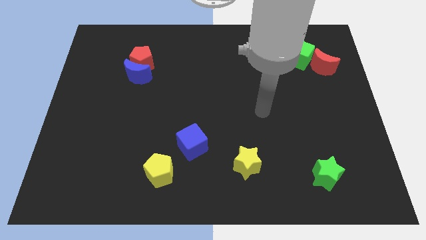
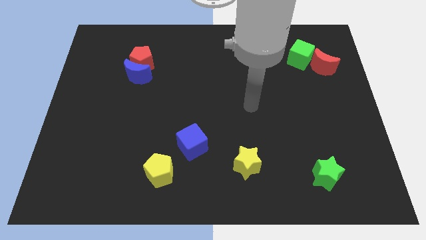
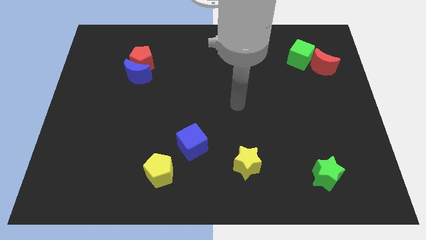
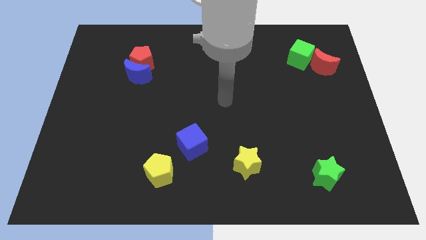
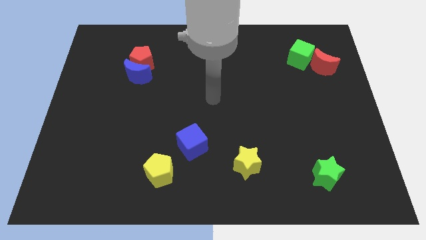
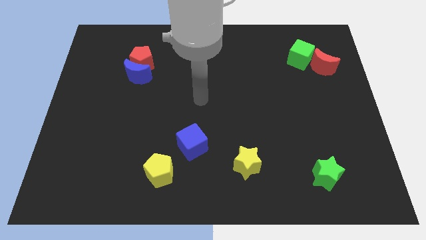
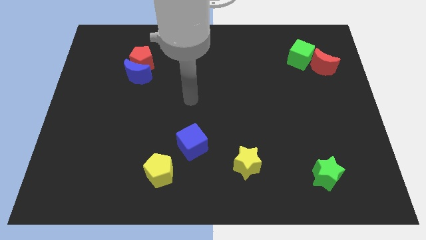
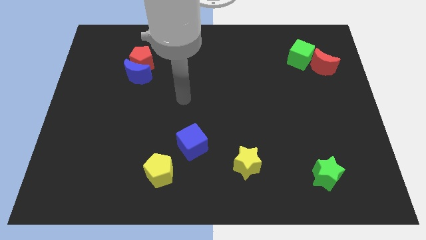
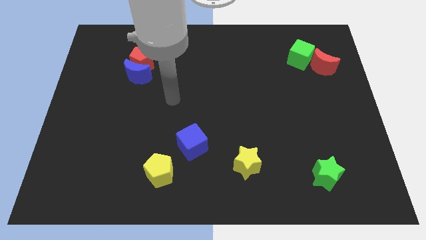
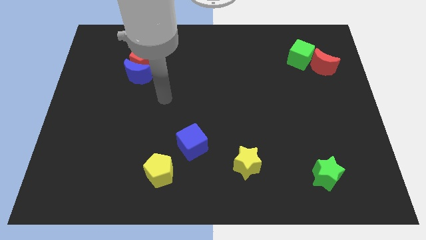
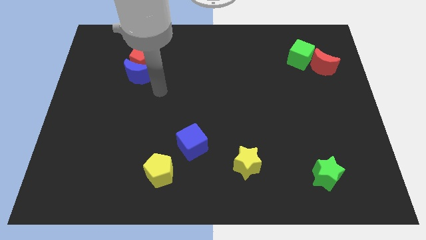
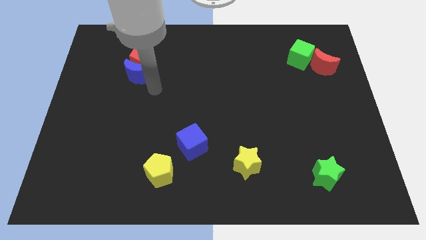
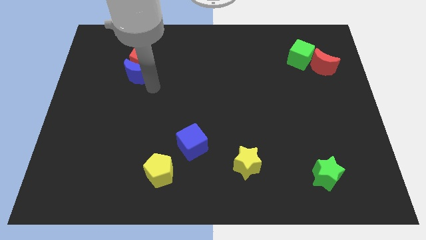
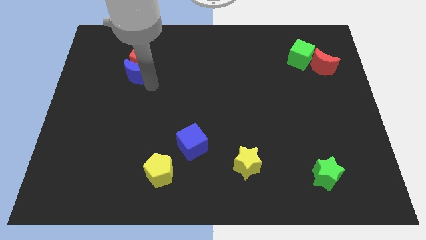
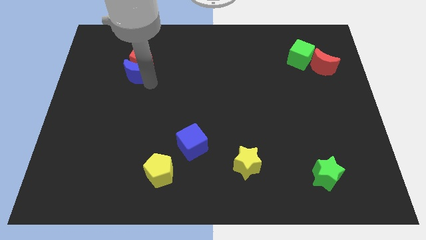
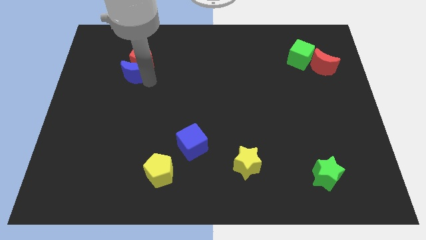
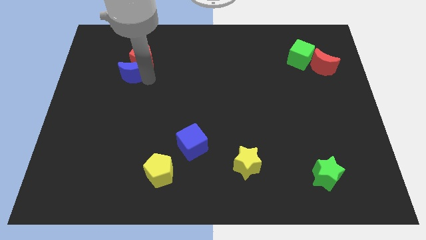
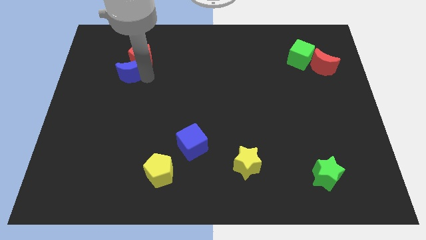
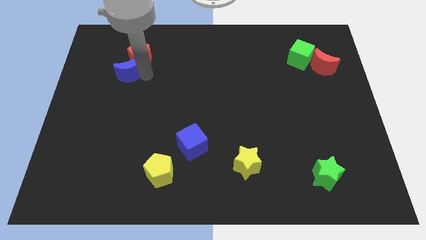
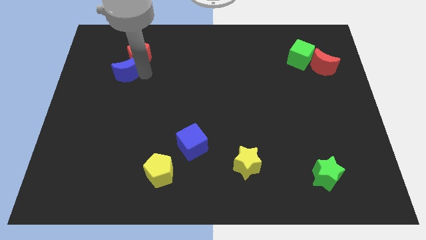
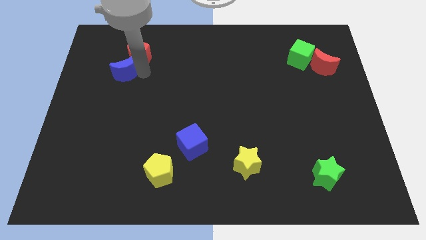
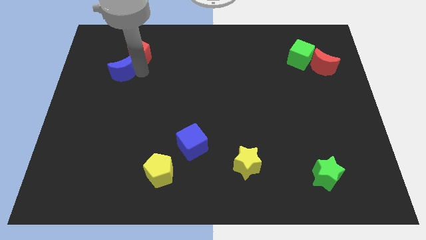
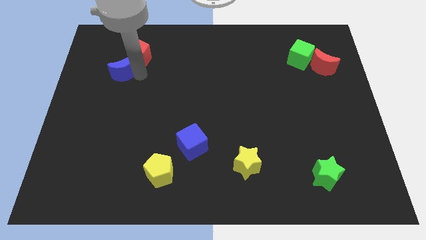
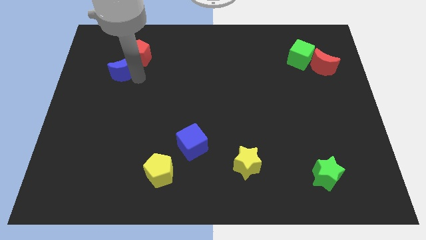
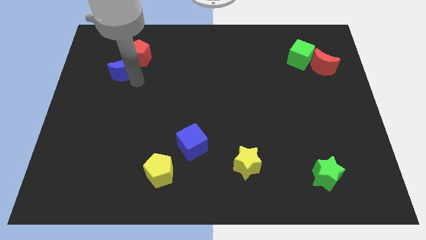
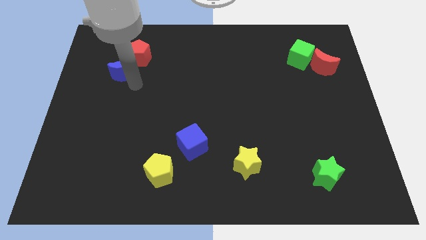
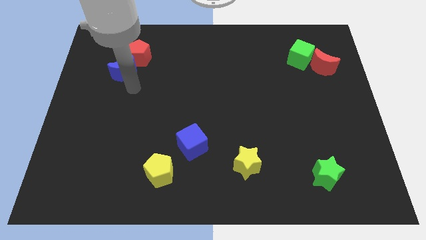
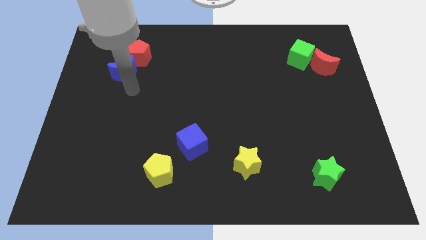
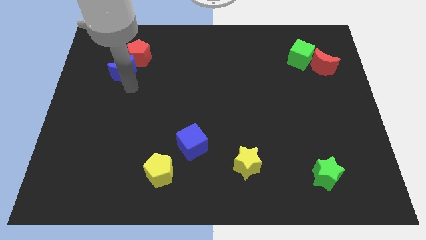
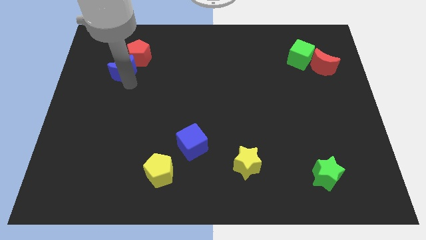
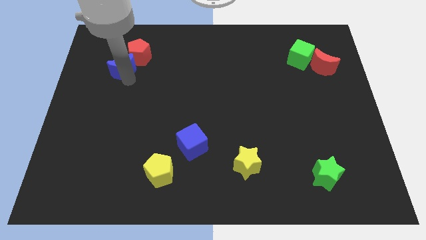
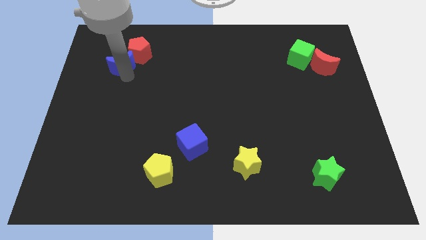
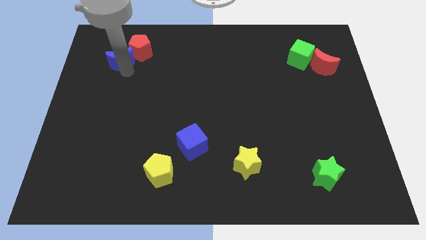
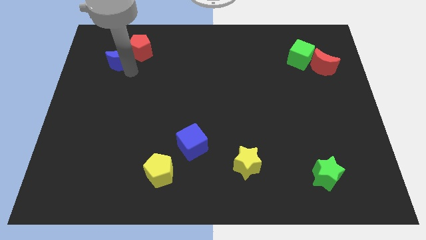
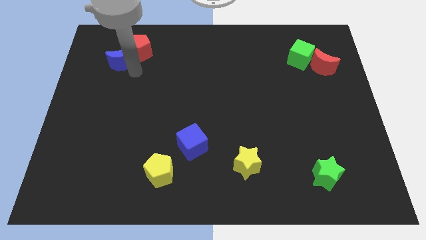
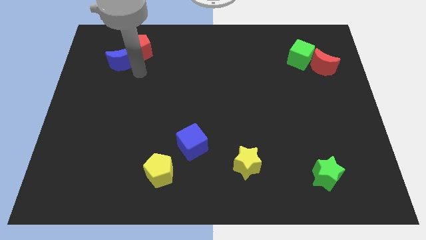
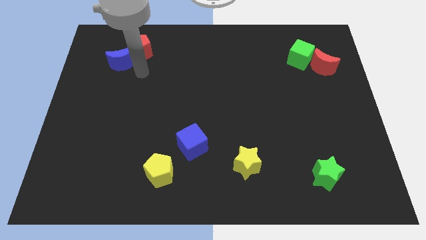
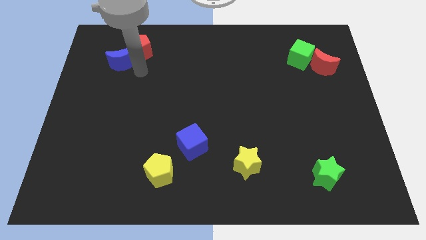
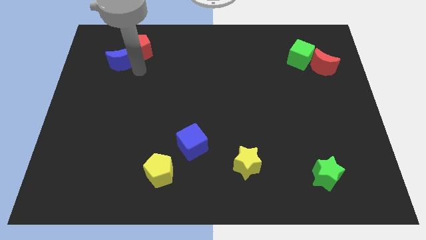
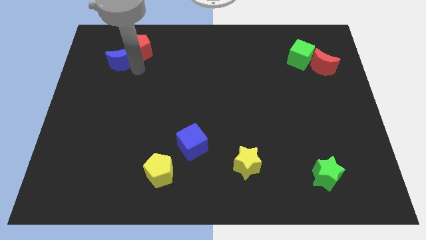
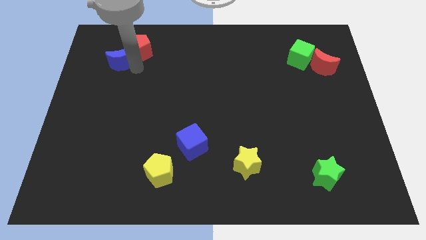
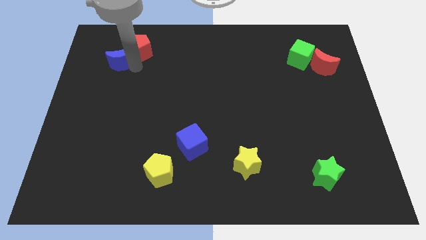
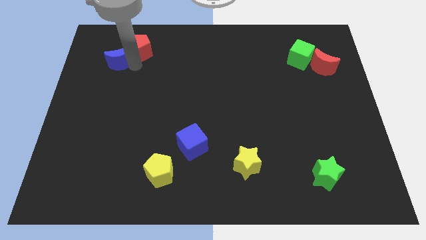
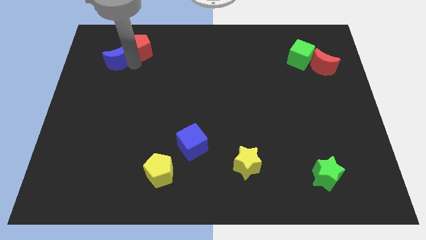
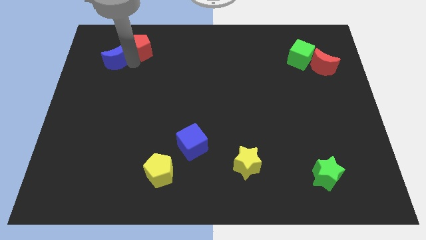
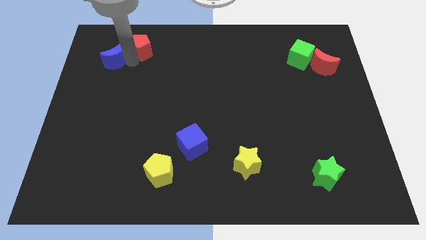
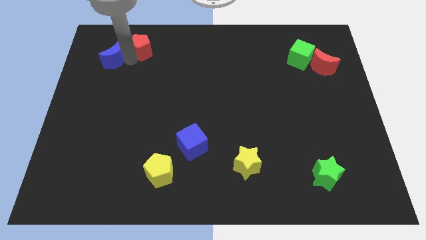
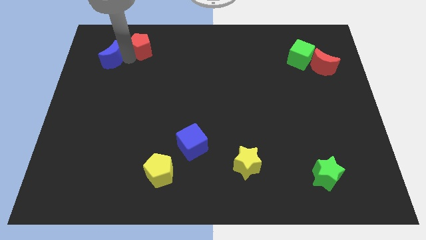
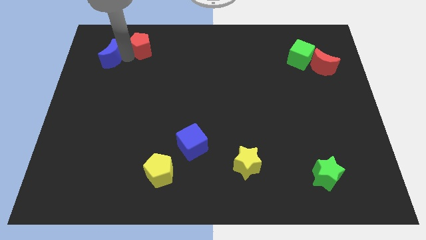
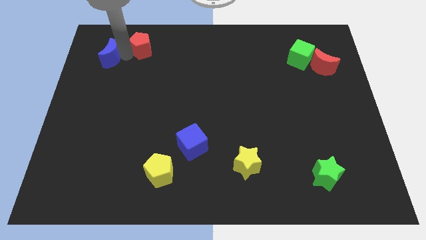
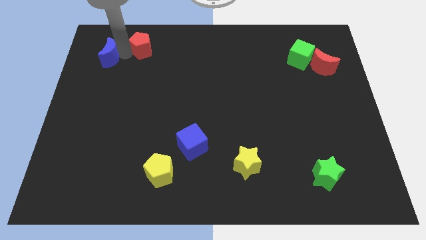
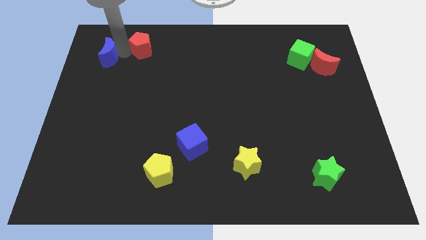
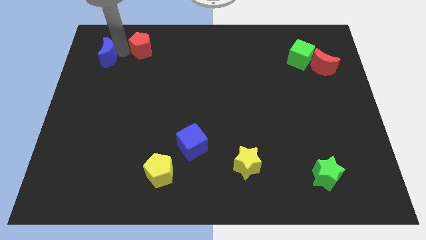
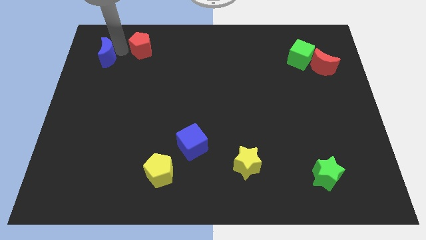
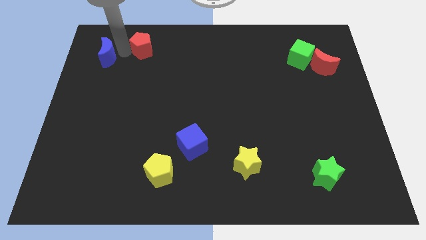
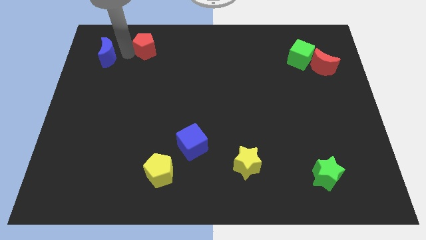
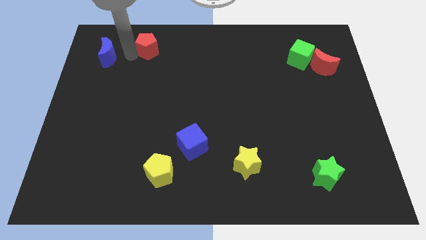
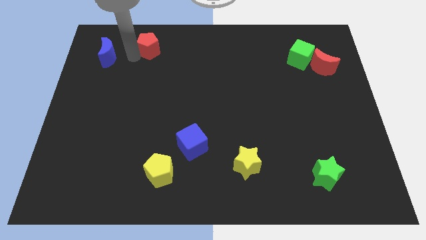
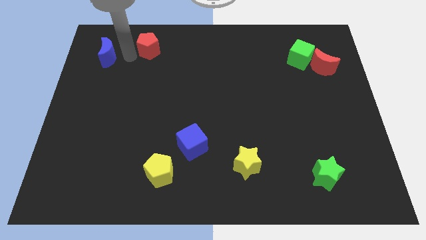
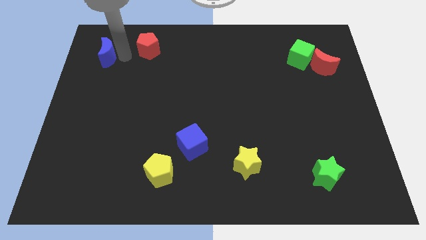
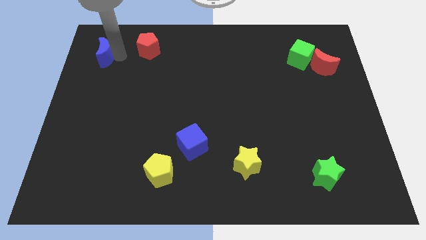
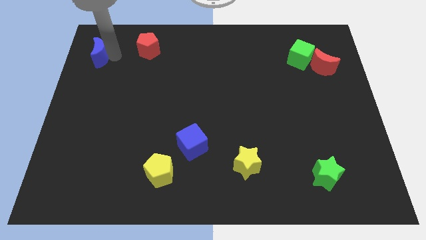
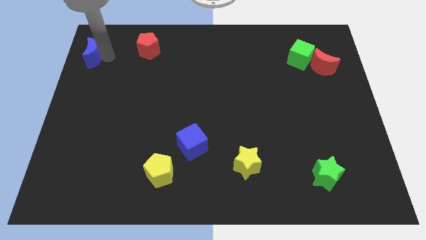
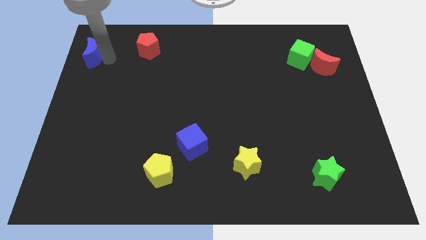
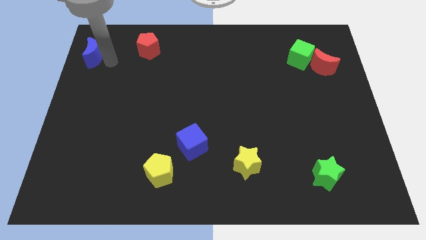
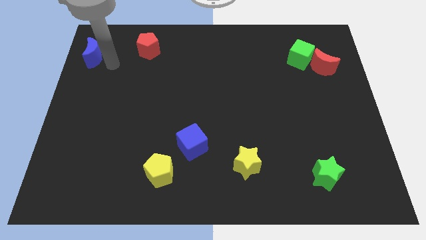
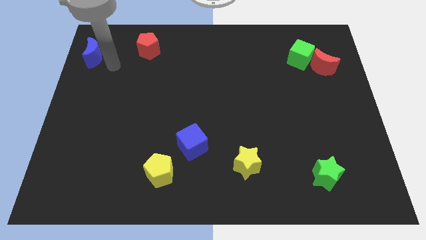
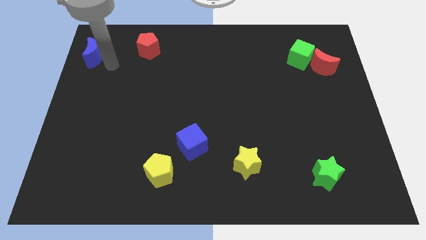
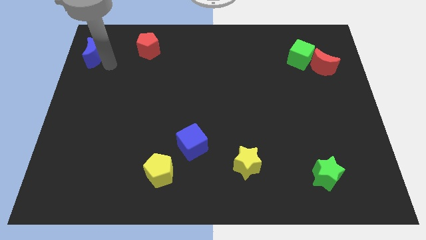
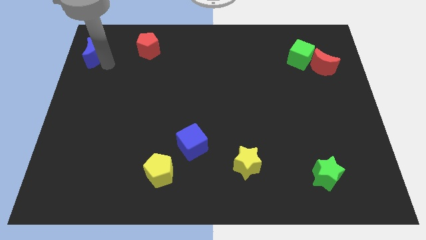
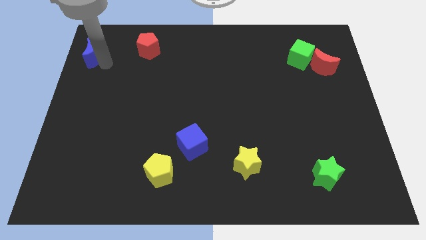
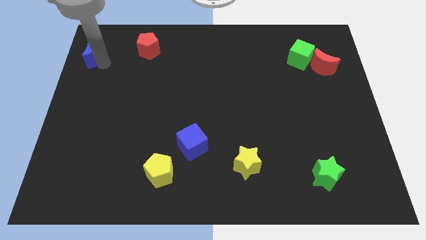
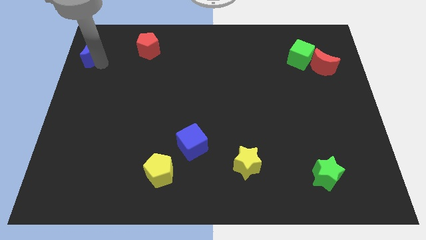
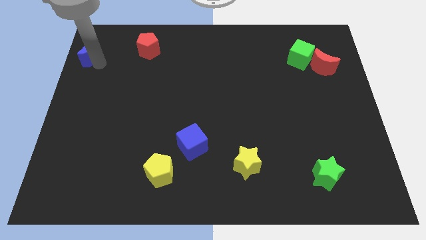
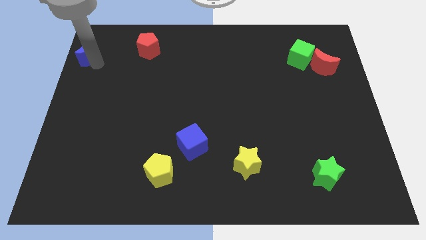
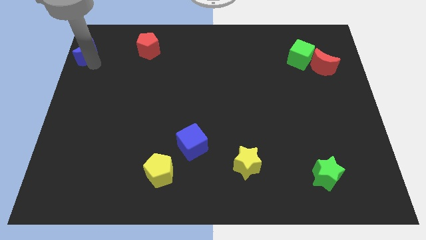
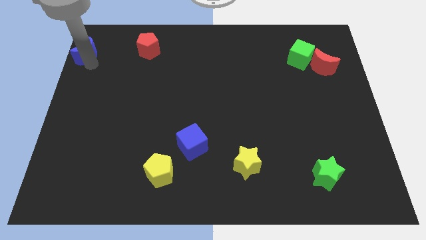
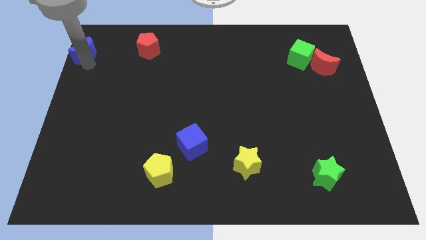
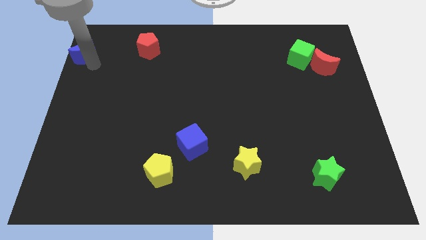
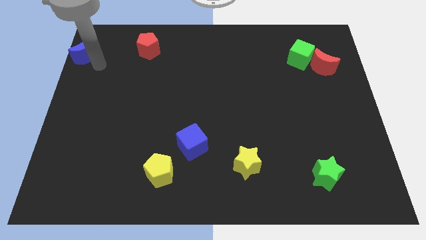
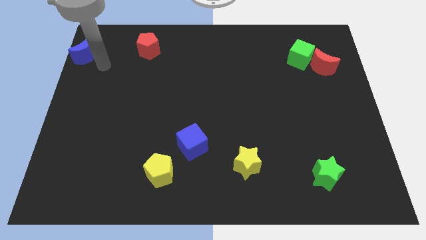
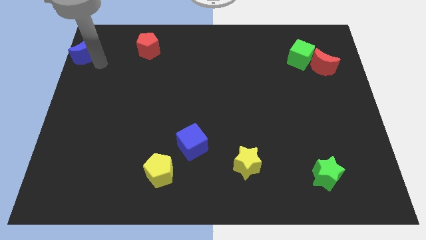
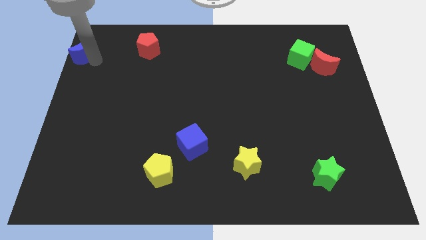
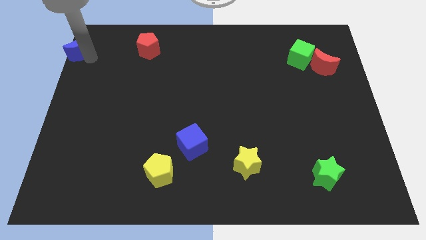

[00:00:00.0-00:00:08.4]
push the blue moon to the top left of the board
